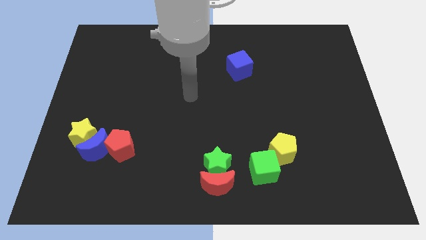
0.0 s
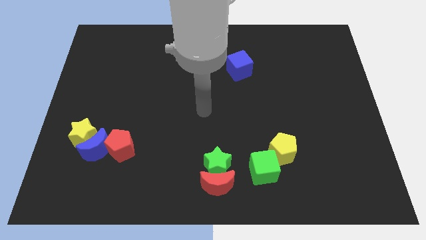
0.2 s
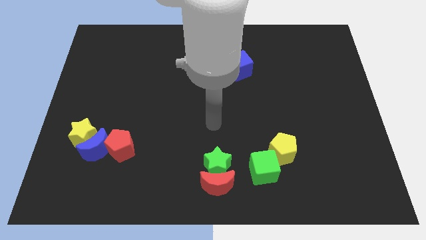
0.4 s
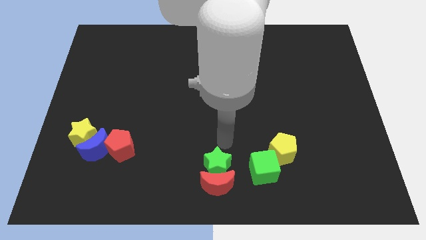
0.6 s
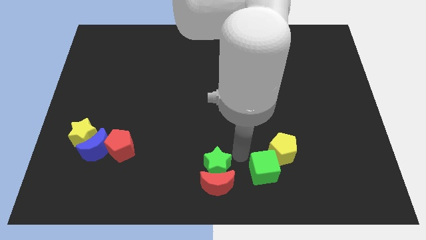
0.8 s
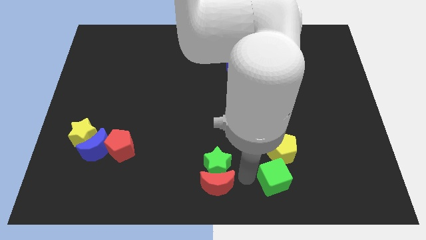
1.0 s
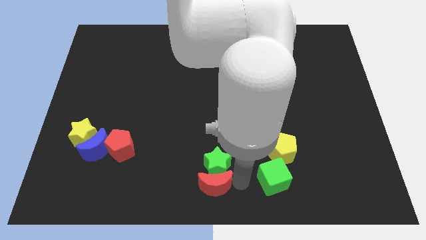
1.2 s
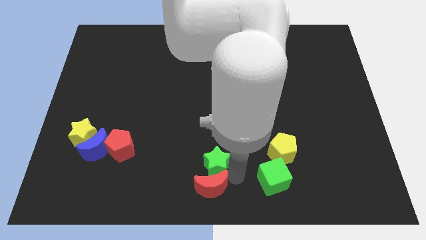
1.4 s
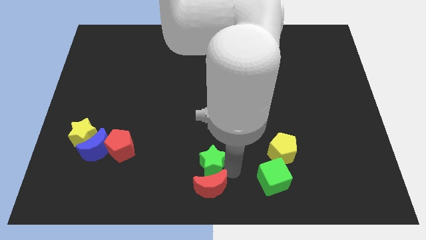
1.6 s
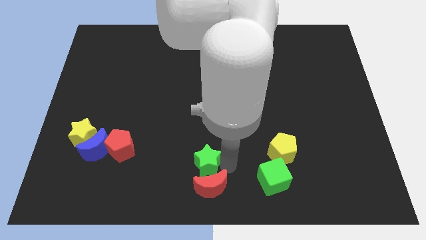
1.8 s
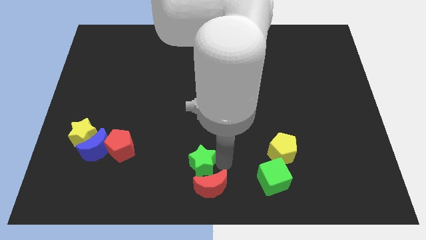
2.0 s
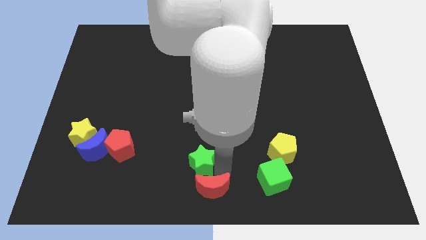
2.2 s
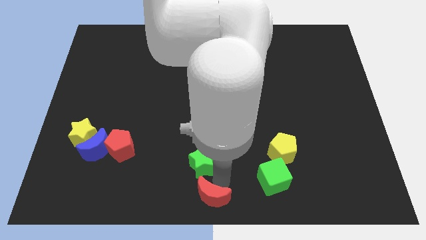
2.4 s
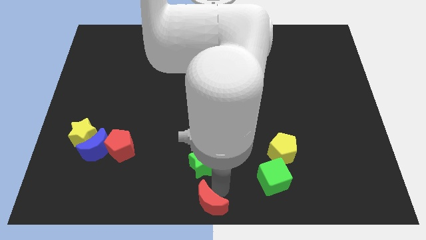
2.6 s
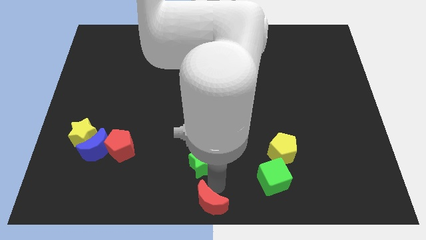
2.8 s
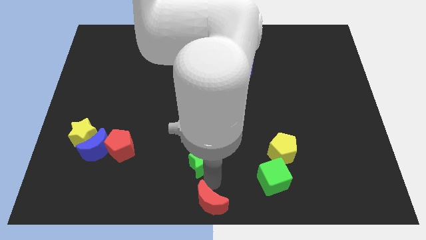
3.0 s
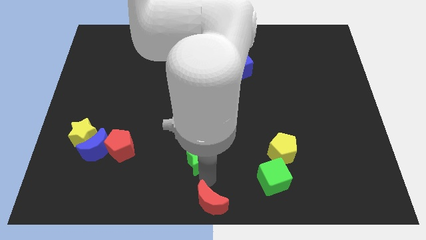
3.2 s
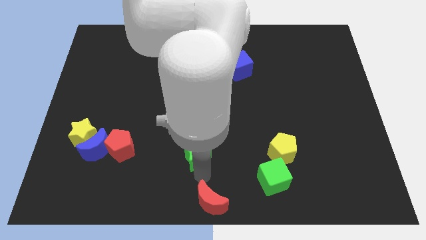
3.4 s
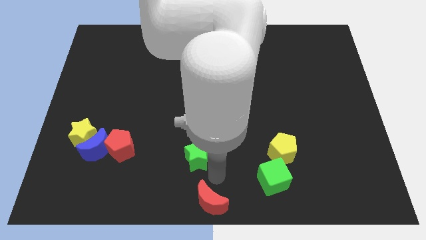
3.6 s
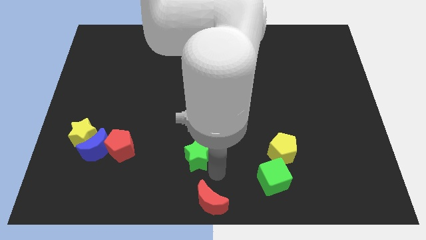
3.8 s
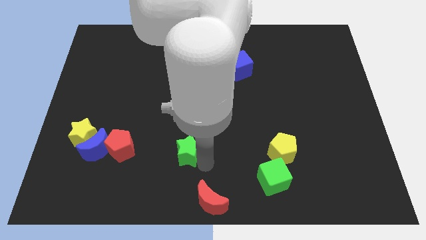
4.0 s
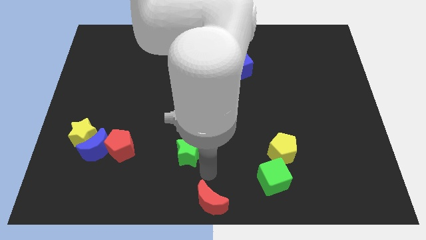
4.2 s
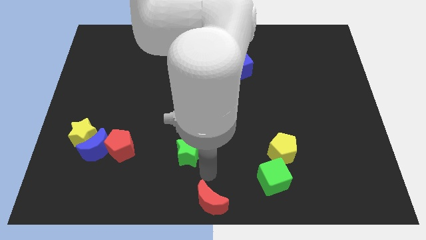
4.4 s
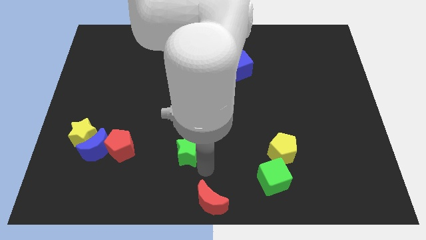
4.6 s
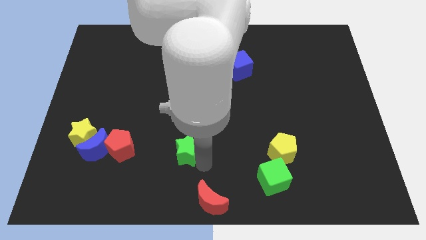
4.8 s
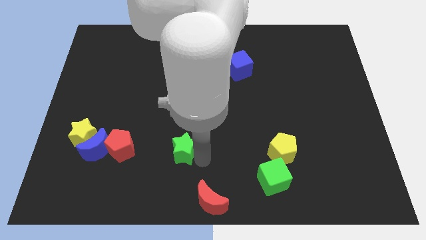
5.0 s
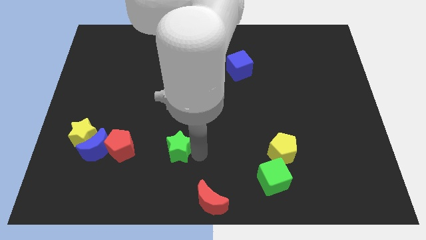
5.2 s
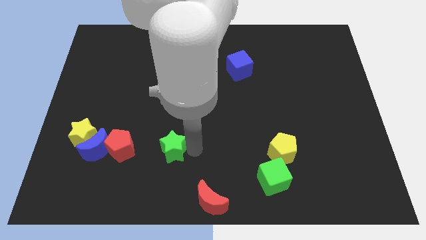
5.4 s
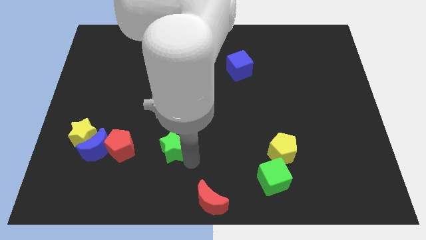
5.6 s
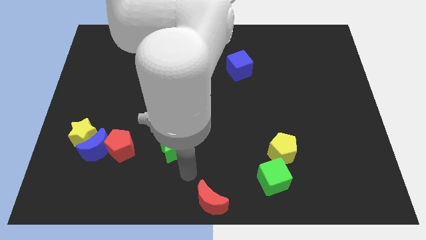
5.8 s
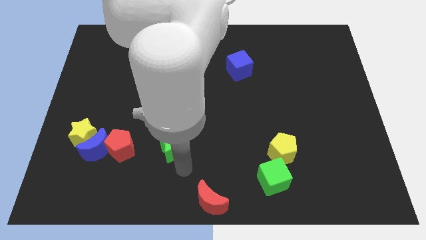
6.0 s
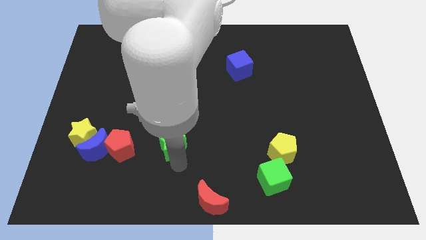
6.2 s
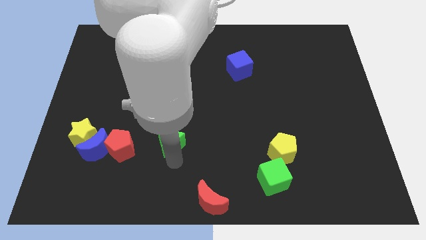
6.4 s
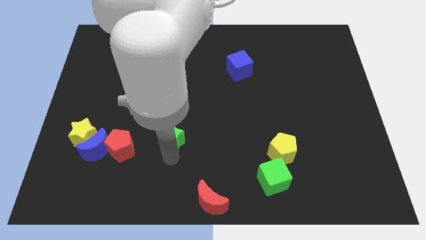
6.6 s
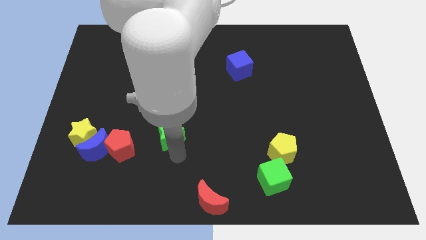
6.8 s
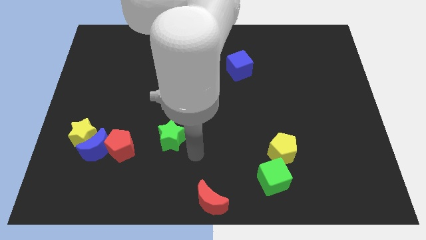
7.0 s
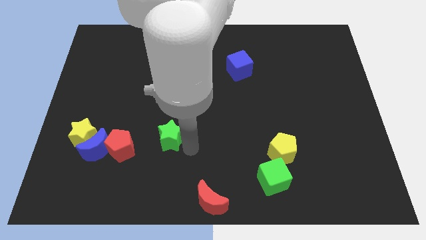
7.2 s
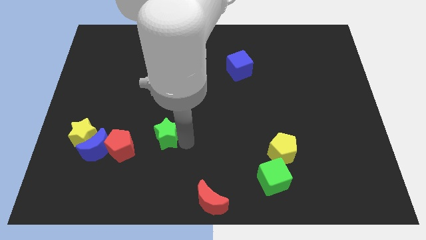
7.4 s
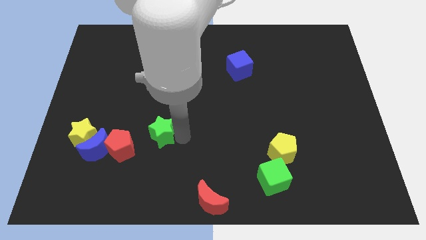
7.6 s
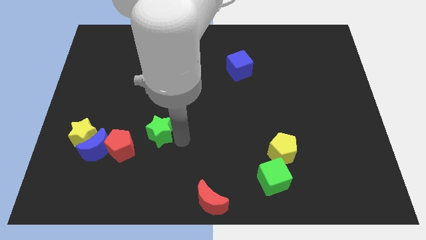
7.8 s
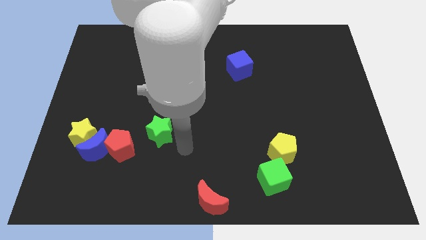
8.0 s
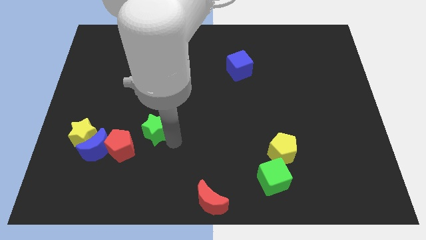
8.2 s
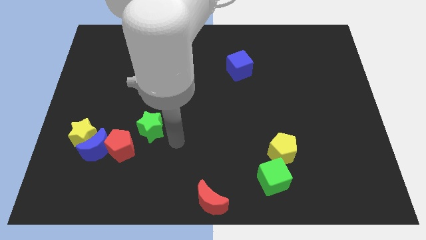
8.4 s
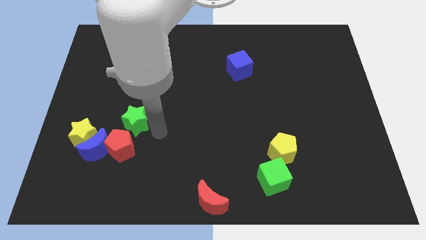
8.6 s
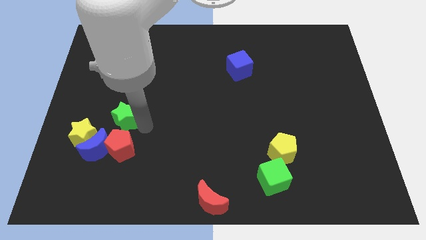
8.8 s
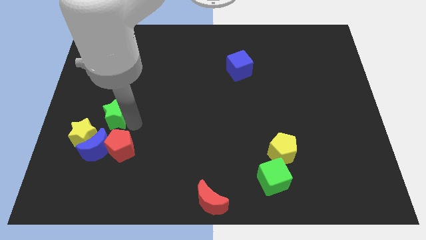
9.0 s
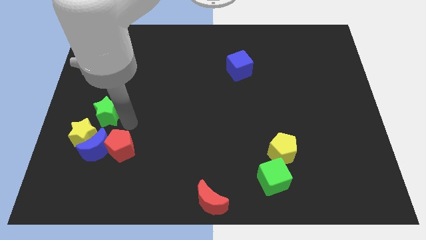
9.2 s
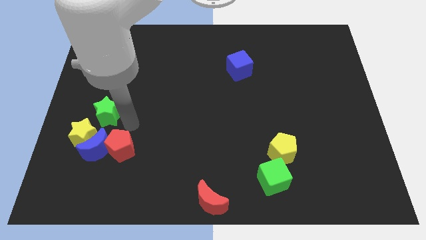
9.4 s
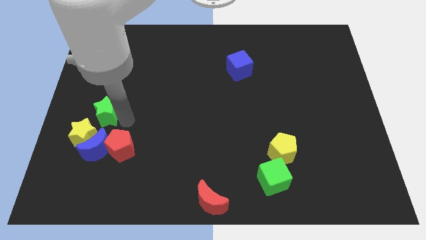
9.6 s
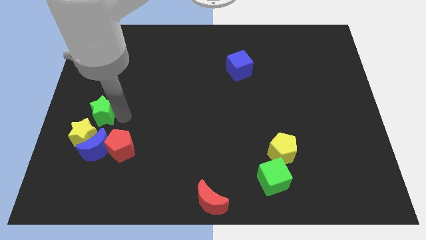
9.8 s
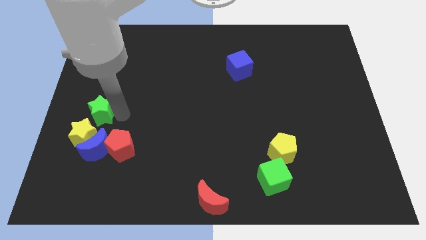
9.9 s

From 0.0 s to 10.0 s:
push the green star to the left side

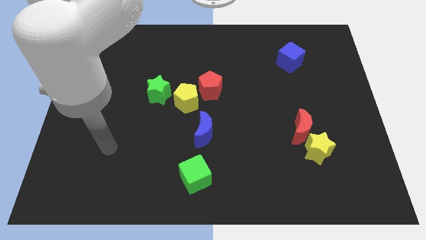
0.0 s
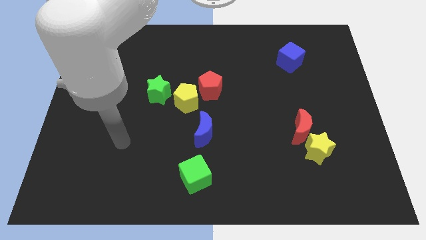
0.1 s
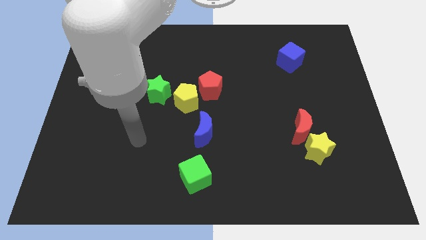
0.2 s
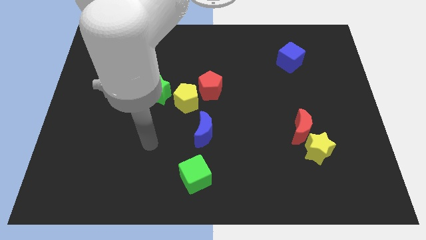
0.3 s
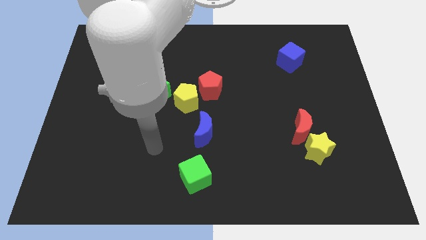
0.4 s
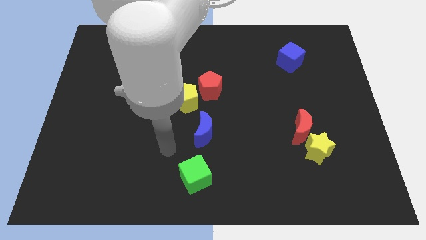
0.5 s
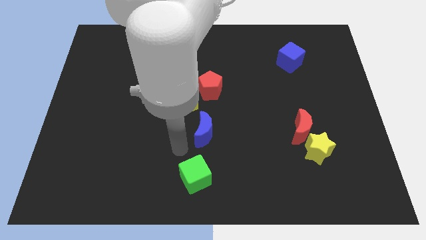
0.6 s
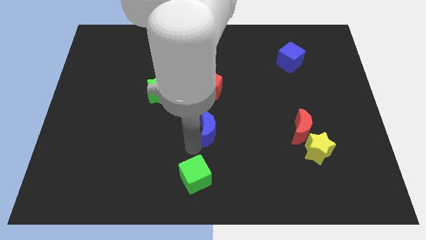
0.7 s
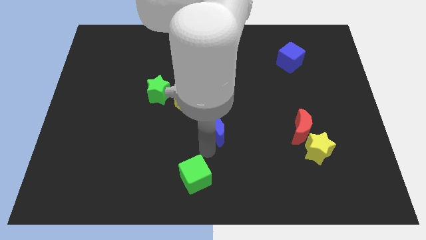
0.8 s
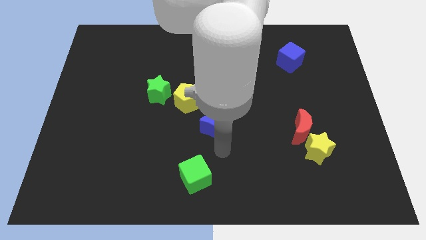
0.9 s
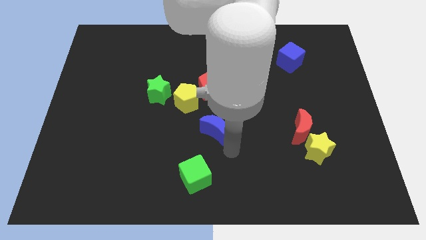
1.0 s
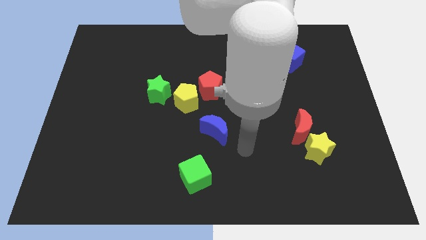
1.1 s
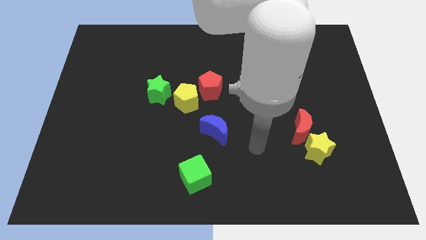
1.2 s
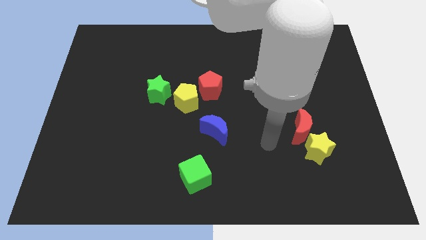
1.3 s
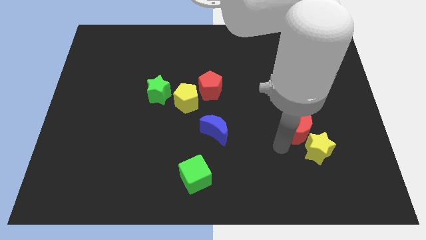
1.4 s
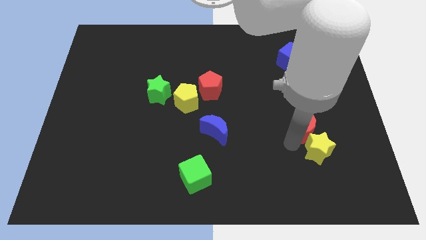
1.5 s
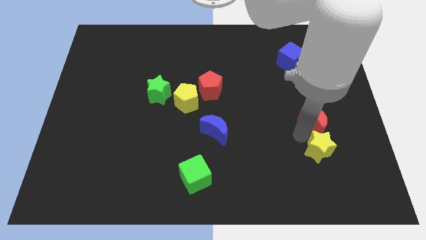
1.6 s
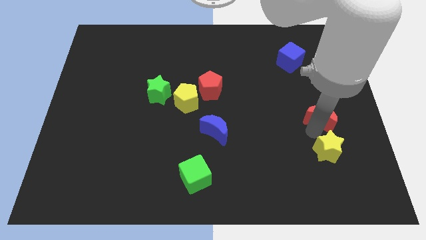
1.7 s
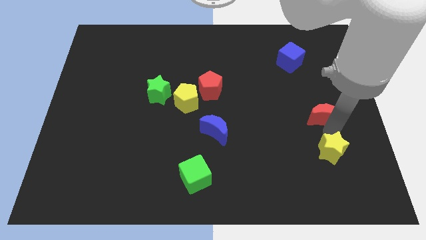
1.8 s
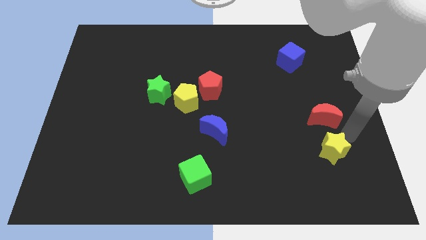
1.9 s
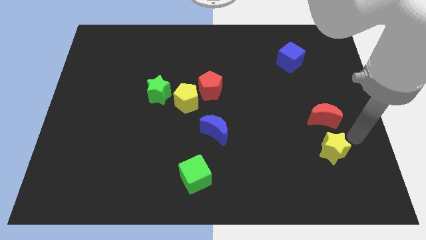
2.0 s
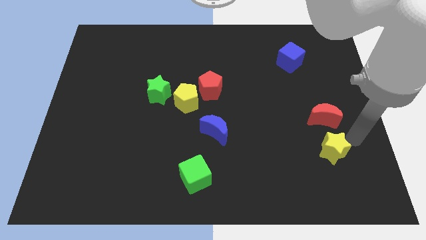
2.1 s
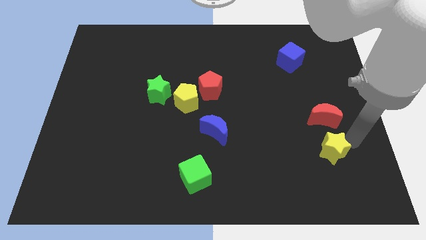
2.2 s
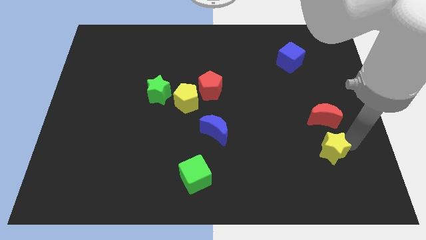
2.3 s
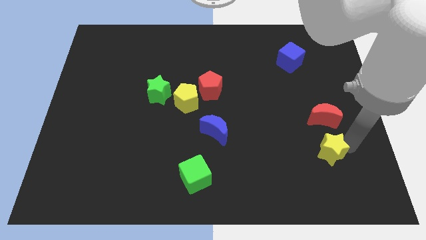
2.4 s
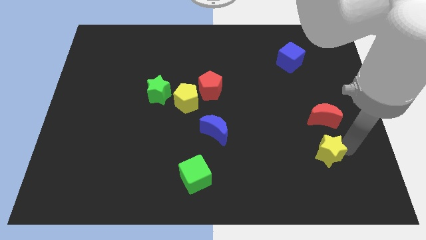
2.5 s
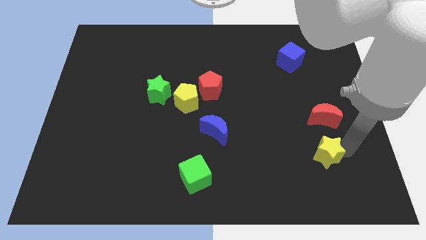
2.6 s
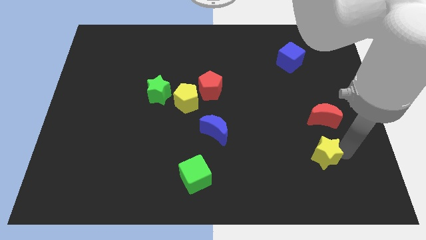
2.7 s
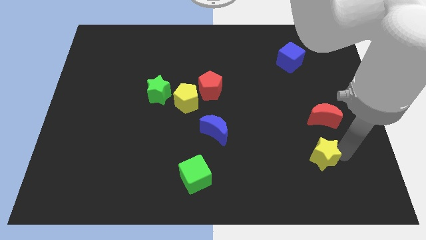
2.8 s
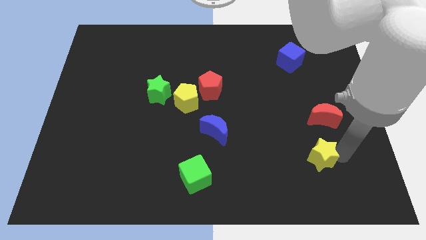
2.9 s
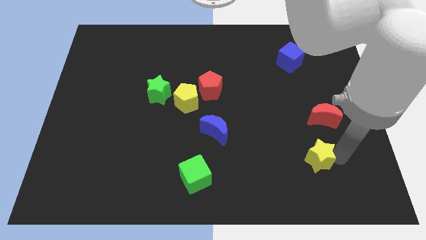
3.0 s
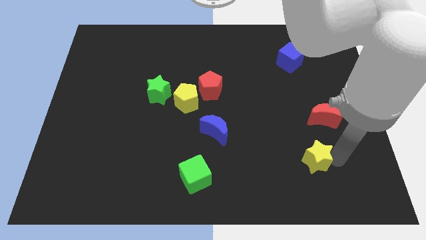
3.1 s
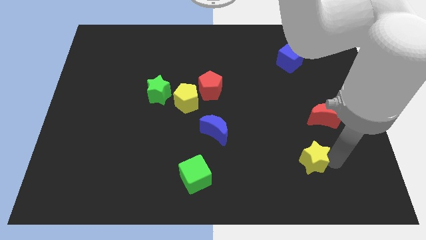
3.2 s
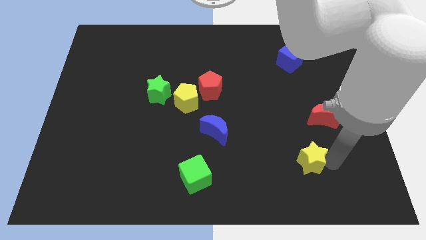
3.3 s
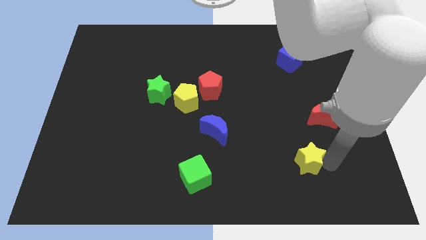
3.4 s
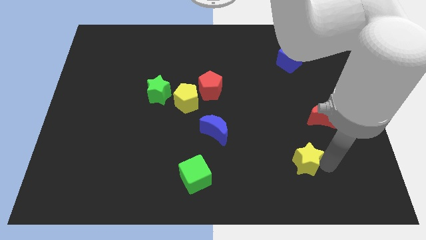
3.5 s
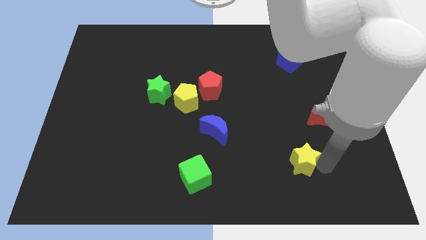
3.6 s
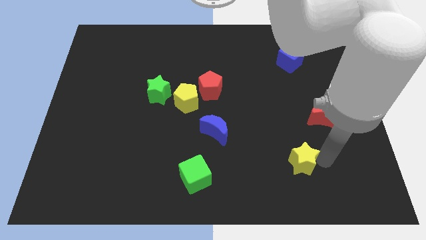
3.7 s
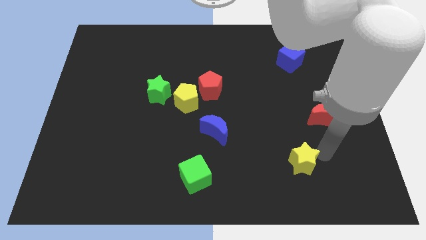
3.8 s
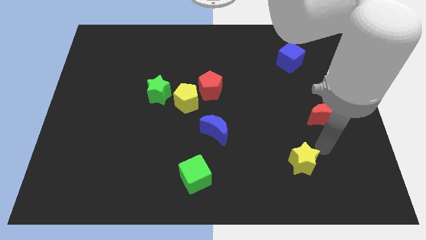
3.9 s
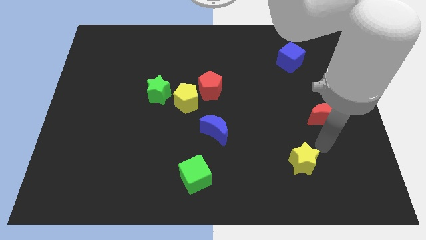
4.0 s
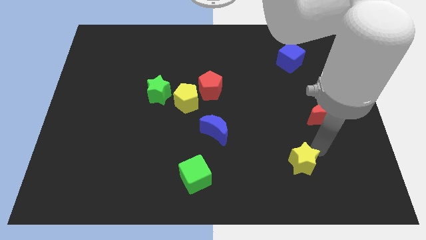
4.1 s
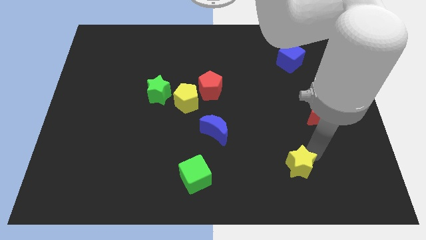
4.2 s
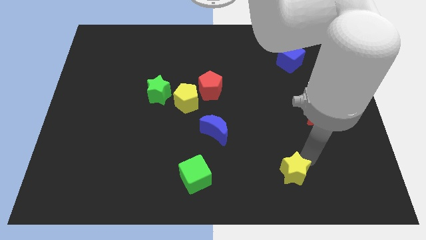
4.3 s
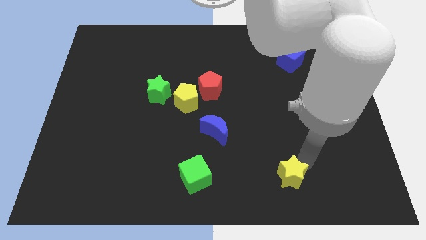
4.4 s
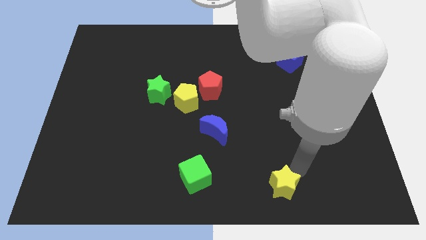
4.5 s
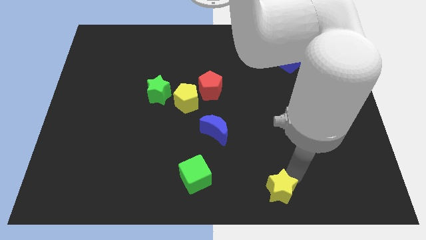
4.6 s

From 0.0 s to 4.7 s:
put the yellow star to the bottom
